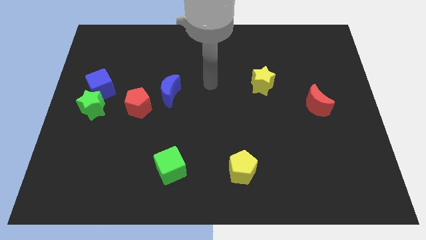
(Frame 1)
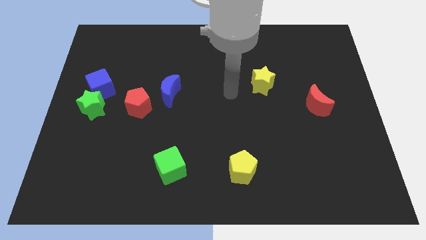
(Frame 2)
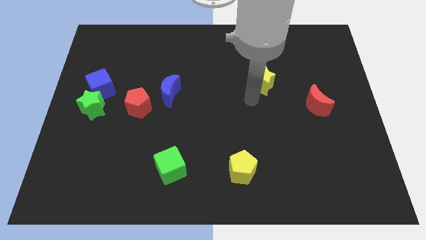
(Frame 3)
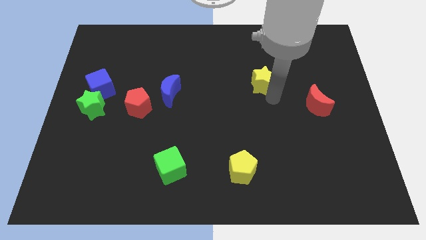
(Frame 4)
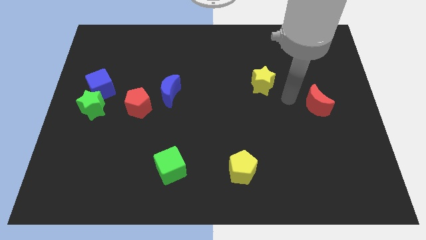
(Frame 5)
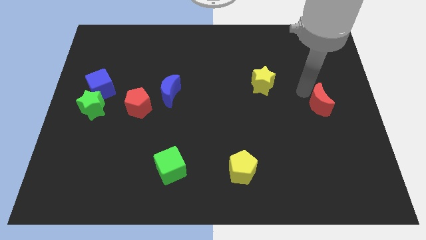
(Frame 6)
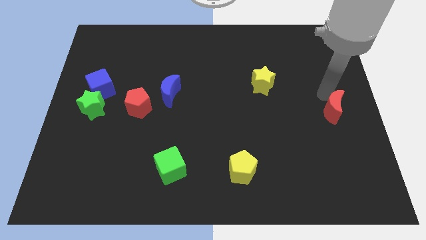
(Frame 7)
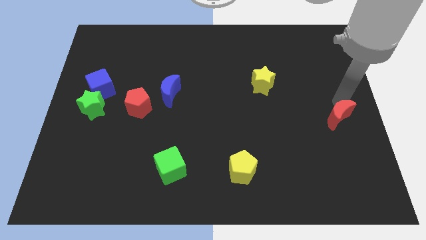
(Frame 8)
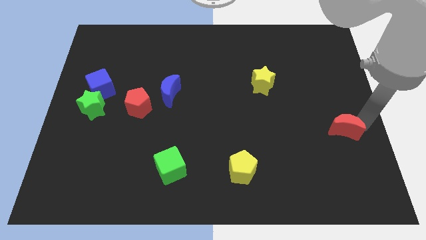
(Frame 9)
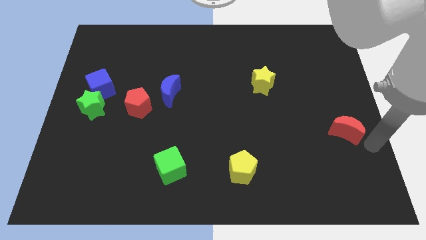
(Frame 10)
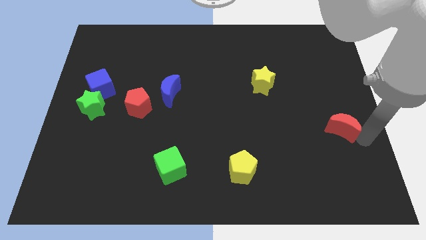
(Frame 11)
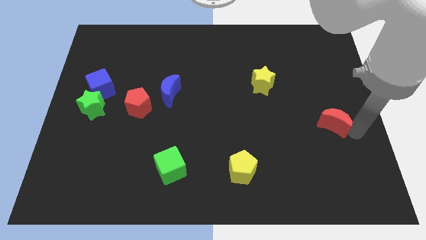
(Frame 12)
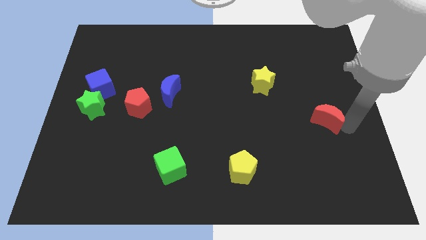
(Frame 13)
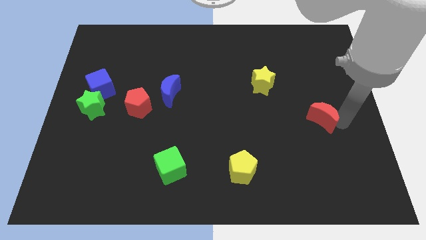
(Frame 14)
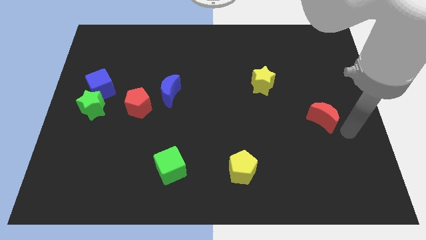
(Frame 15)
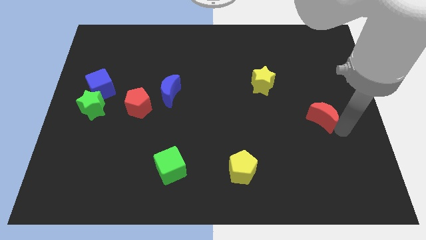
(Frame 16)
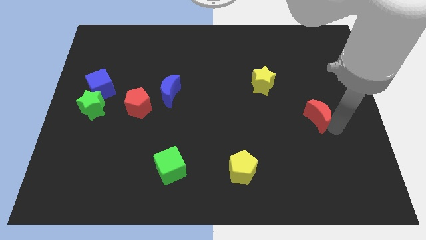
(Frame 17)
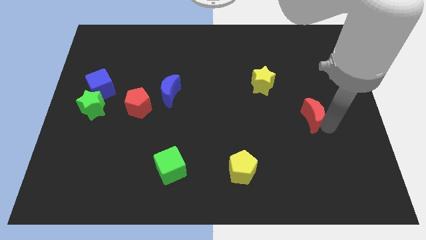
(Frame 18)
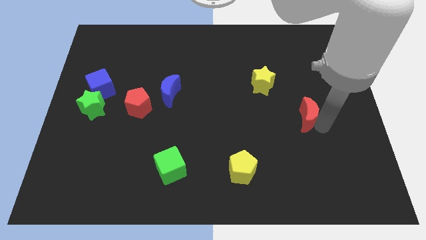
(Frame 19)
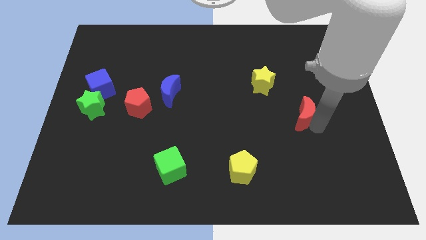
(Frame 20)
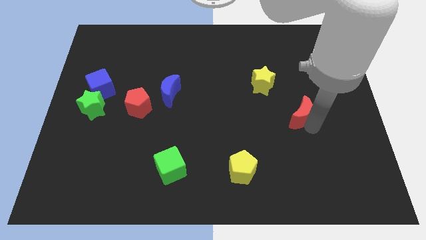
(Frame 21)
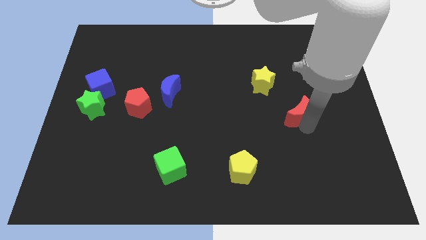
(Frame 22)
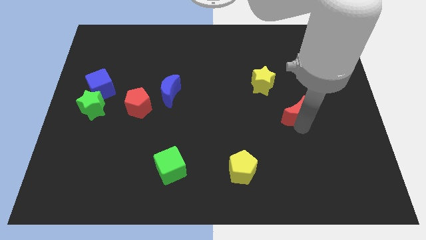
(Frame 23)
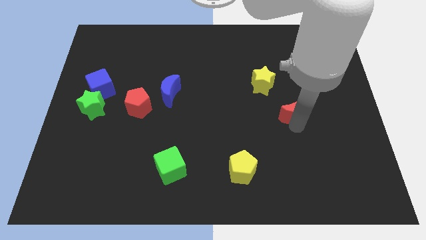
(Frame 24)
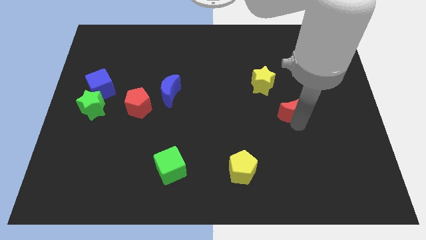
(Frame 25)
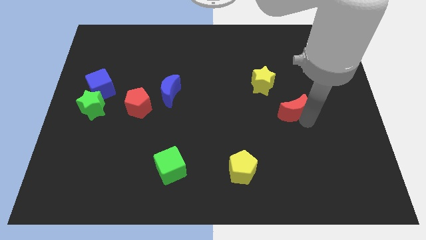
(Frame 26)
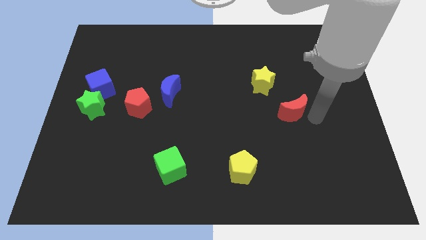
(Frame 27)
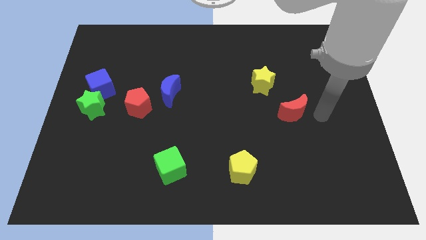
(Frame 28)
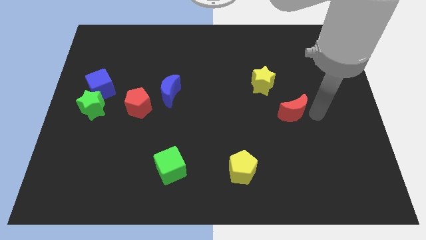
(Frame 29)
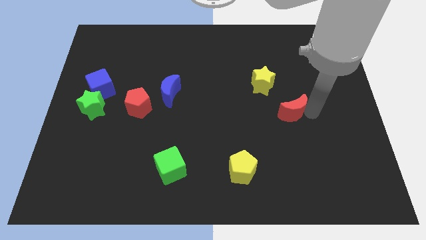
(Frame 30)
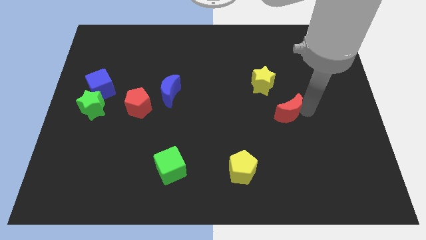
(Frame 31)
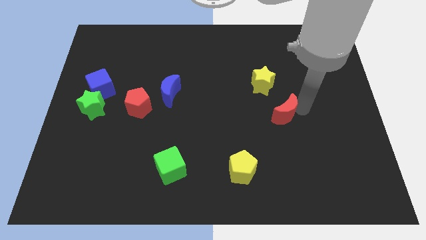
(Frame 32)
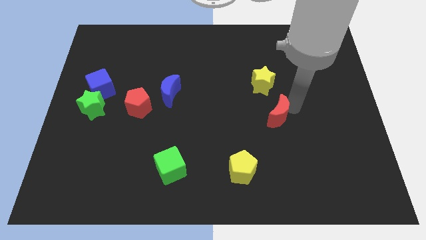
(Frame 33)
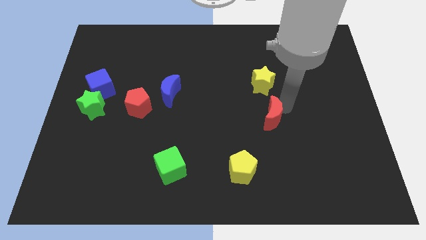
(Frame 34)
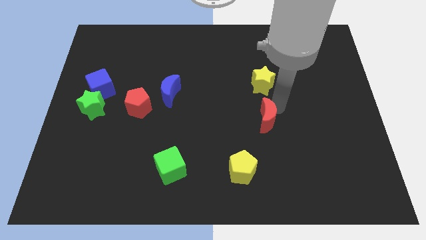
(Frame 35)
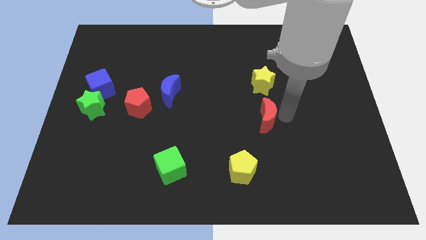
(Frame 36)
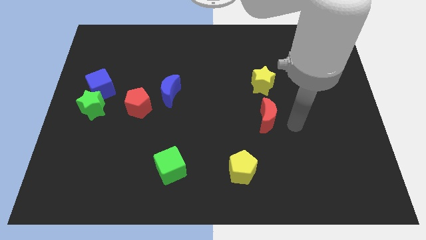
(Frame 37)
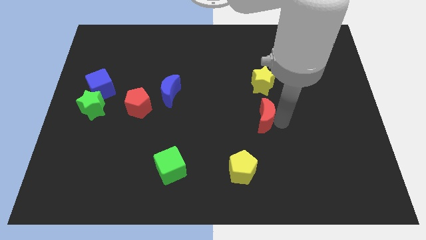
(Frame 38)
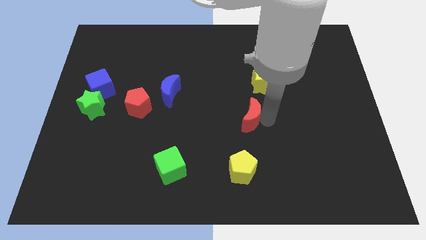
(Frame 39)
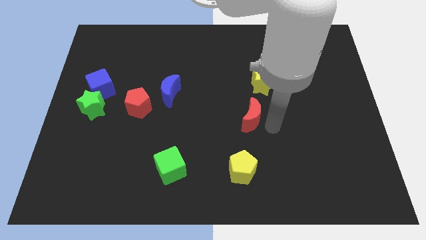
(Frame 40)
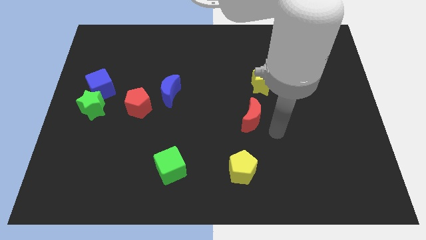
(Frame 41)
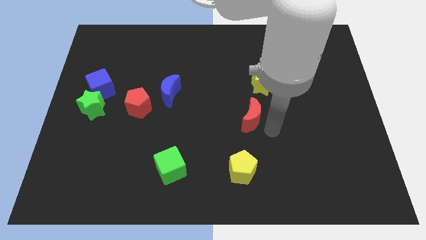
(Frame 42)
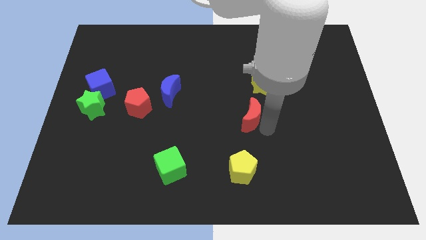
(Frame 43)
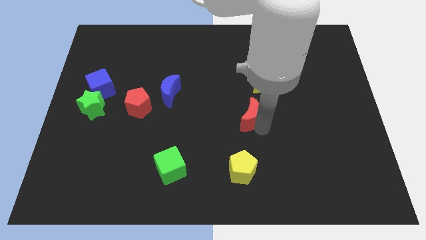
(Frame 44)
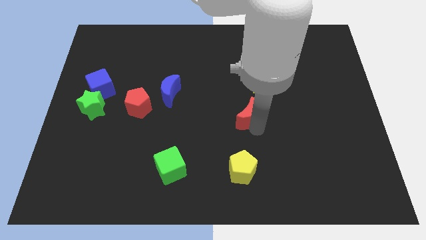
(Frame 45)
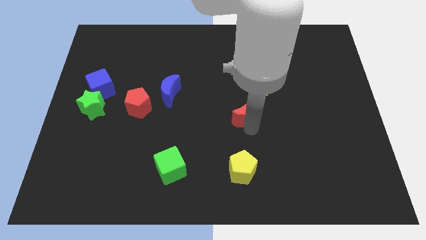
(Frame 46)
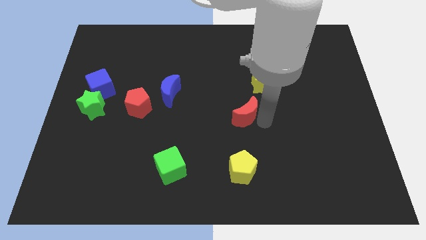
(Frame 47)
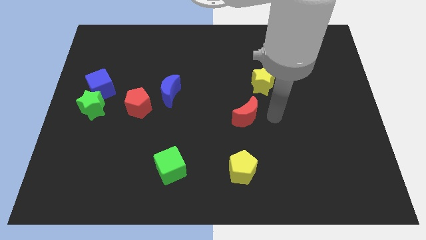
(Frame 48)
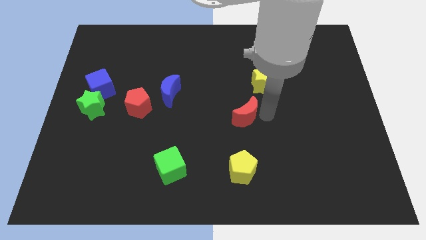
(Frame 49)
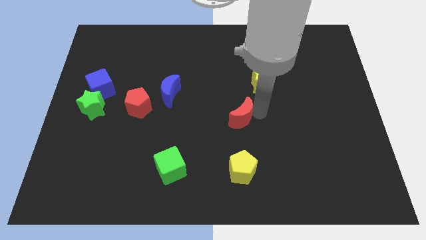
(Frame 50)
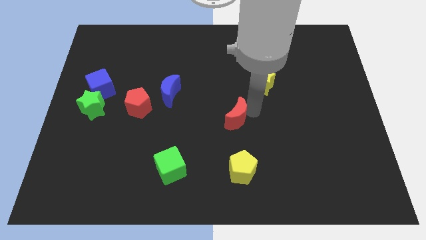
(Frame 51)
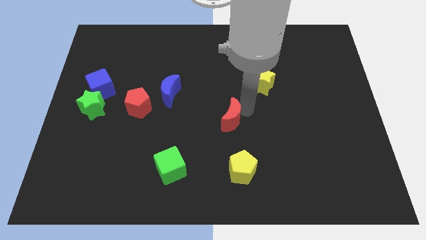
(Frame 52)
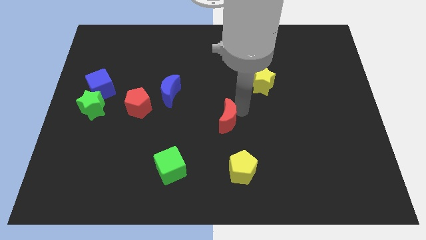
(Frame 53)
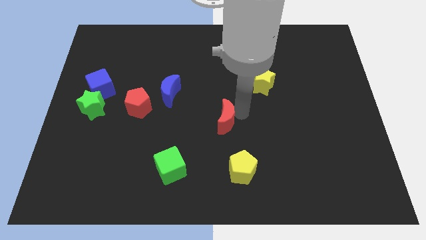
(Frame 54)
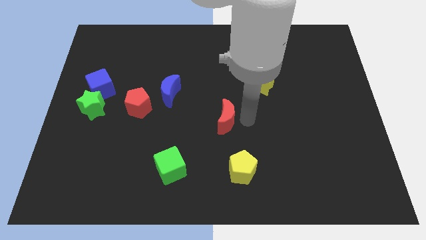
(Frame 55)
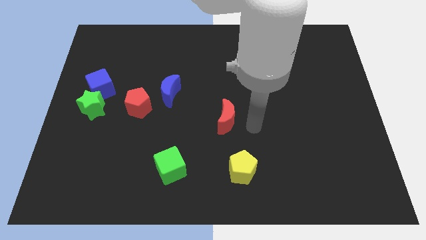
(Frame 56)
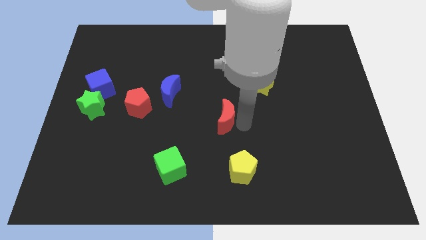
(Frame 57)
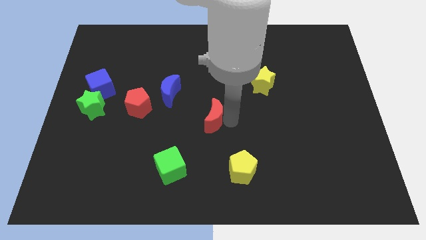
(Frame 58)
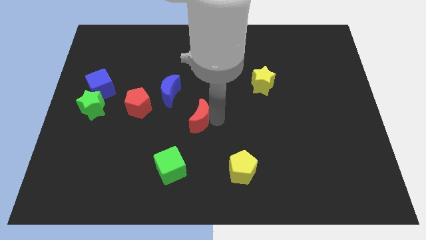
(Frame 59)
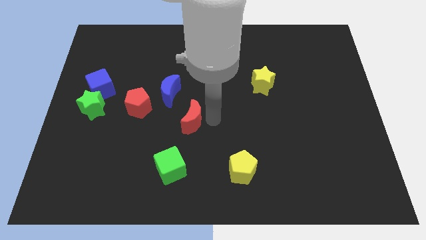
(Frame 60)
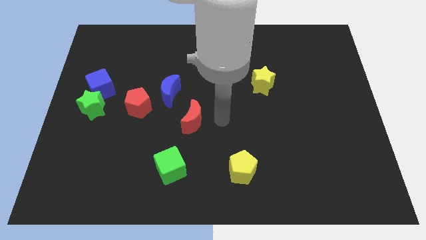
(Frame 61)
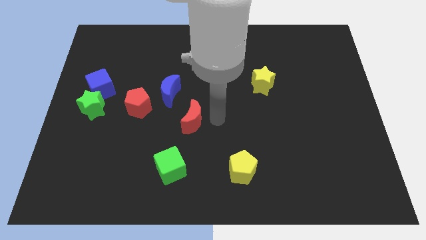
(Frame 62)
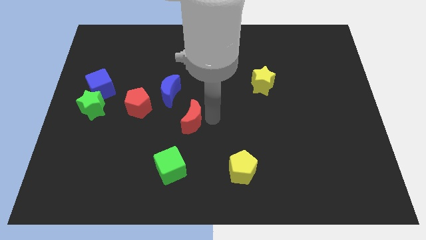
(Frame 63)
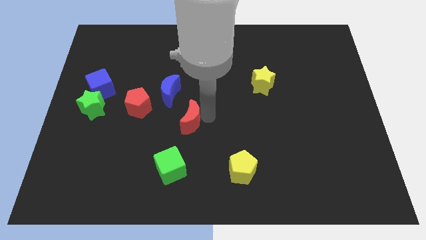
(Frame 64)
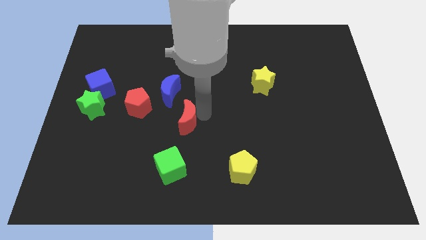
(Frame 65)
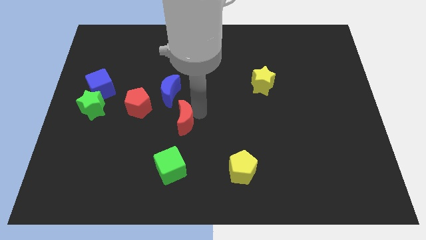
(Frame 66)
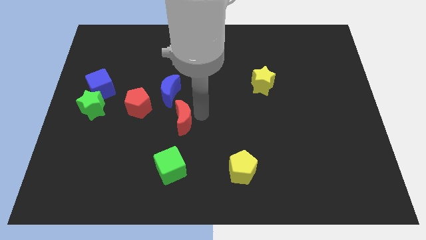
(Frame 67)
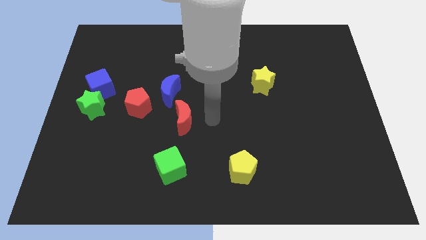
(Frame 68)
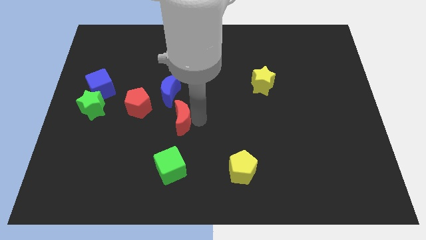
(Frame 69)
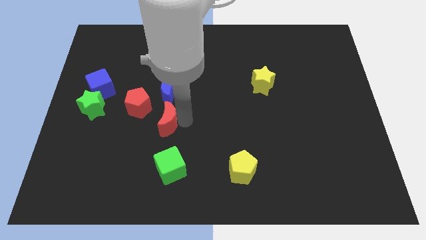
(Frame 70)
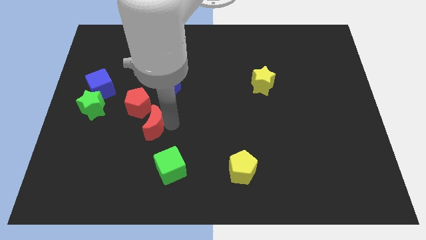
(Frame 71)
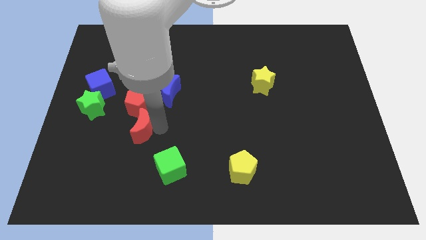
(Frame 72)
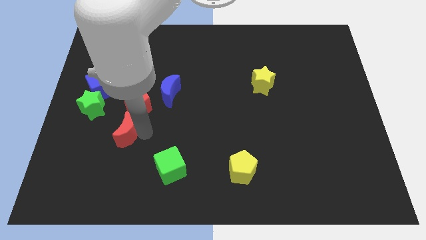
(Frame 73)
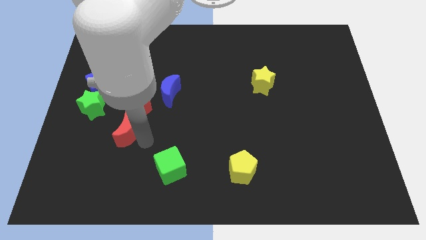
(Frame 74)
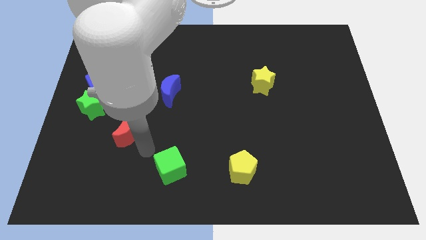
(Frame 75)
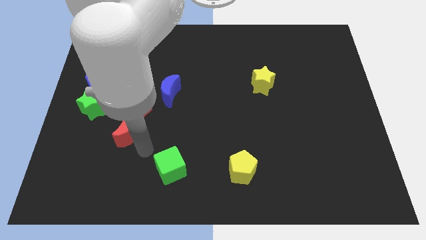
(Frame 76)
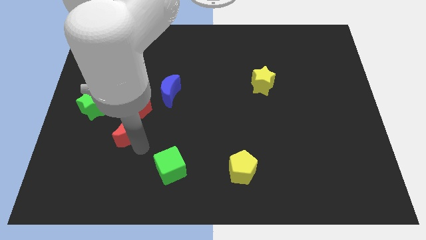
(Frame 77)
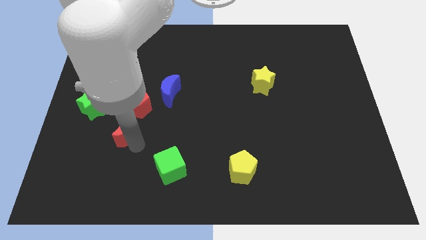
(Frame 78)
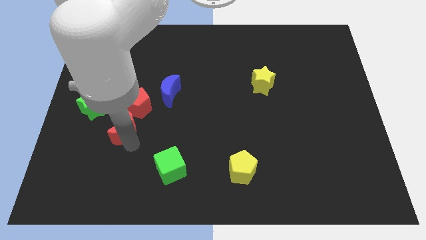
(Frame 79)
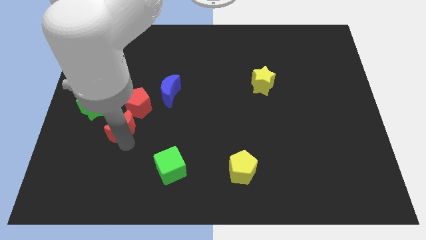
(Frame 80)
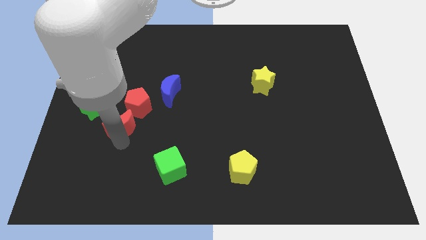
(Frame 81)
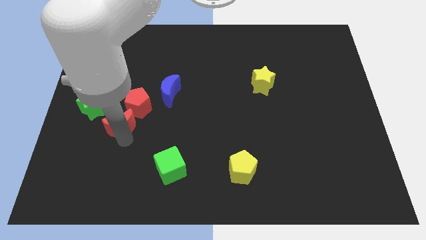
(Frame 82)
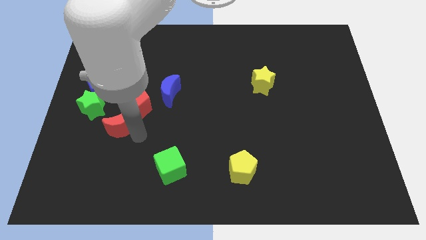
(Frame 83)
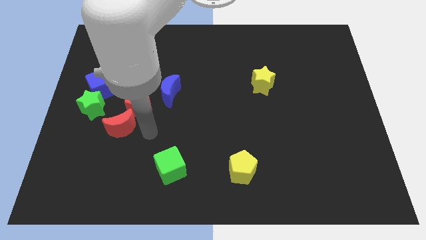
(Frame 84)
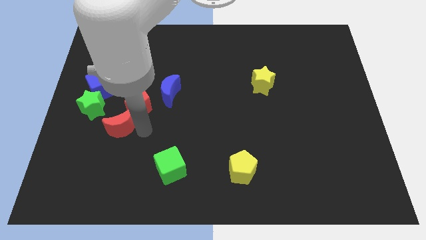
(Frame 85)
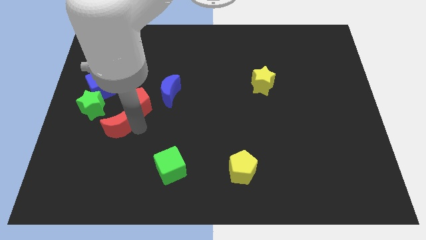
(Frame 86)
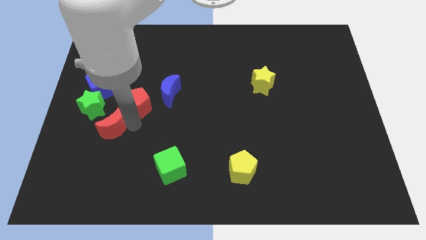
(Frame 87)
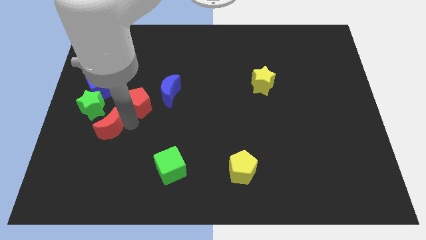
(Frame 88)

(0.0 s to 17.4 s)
slide the red moon to the bottom of the blue cube
